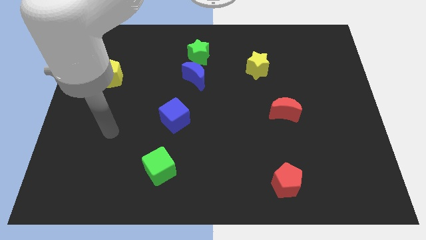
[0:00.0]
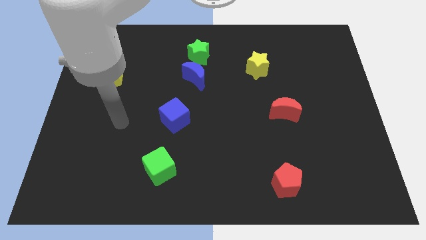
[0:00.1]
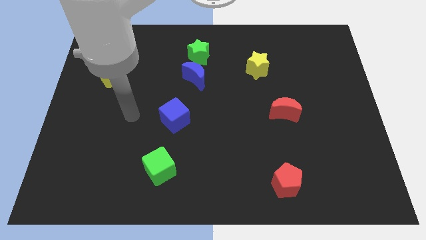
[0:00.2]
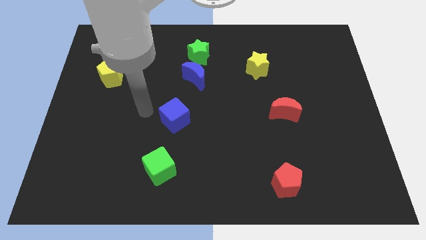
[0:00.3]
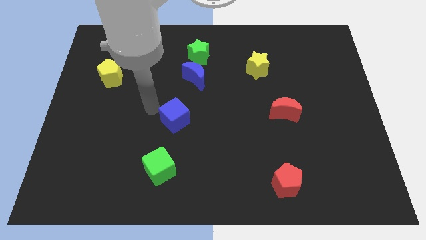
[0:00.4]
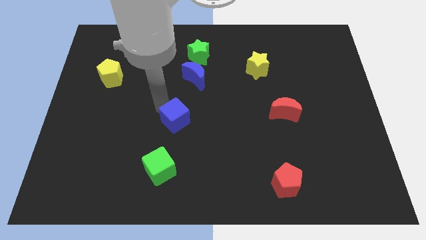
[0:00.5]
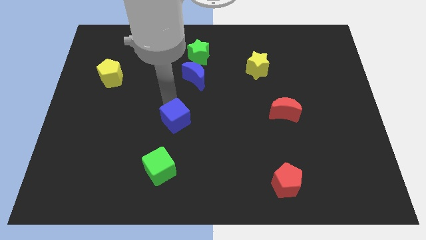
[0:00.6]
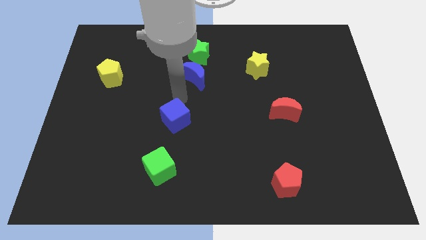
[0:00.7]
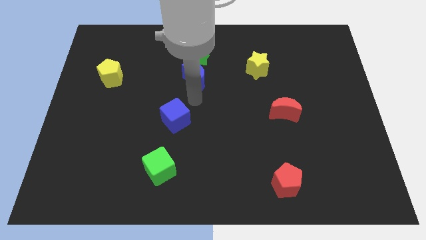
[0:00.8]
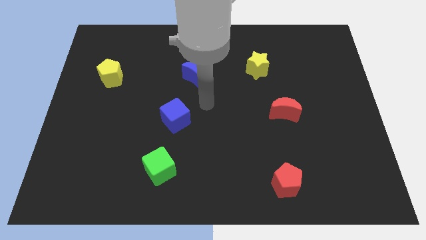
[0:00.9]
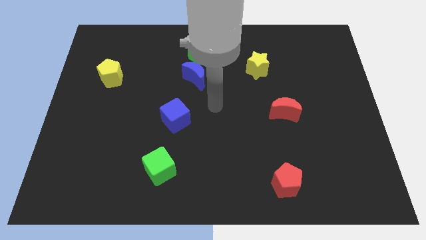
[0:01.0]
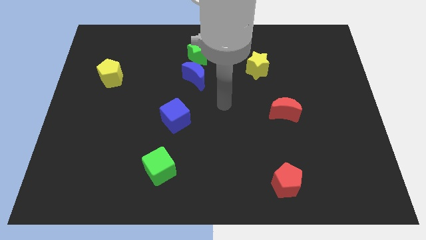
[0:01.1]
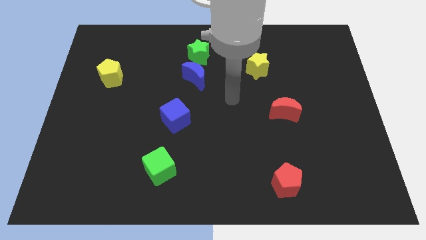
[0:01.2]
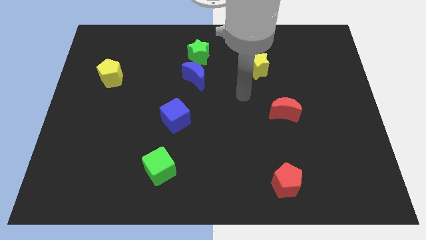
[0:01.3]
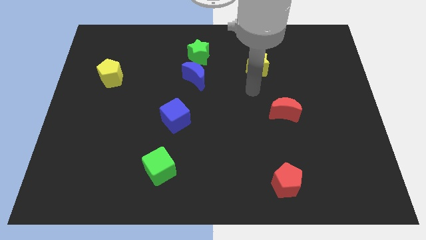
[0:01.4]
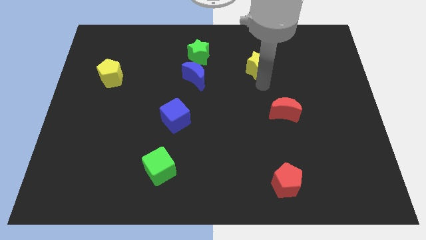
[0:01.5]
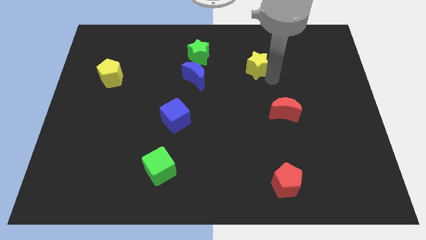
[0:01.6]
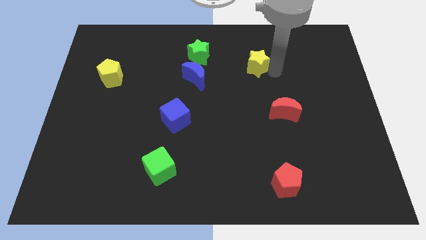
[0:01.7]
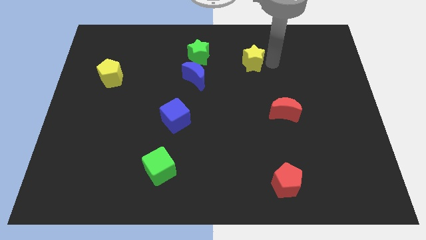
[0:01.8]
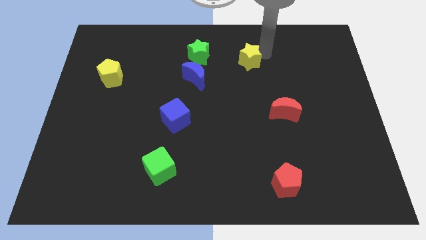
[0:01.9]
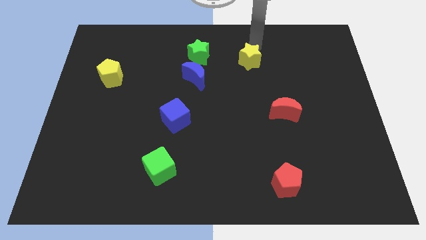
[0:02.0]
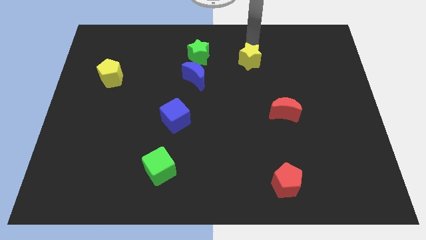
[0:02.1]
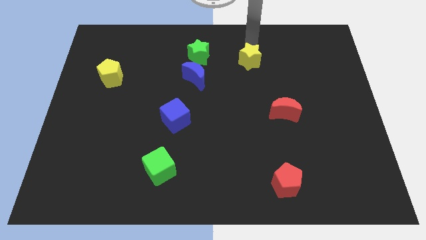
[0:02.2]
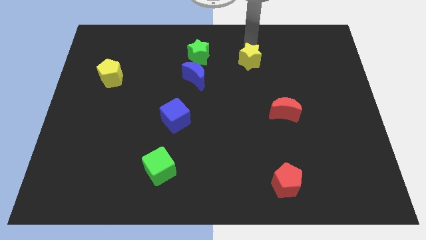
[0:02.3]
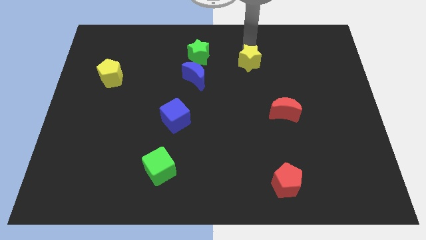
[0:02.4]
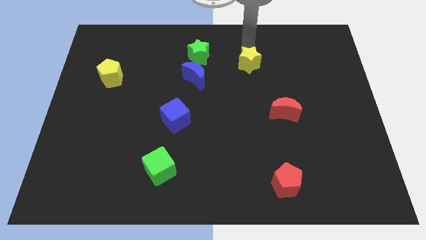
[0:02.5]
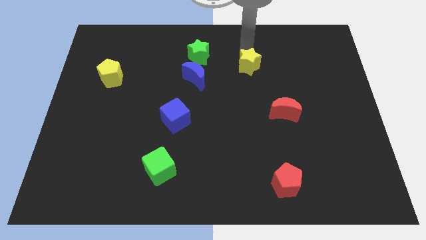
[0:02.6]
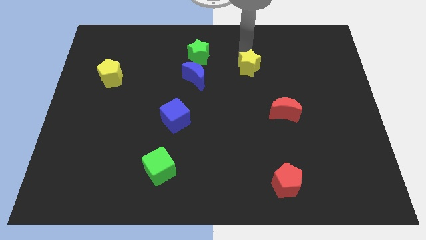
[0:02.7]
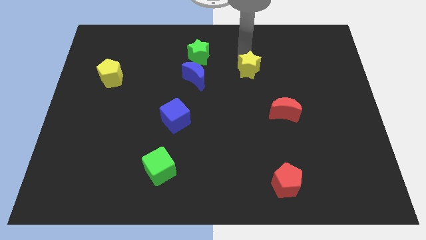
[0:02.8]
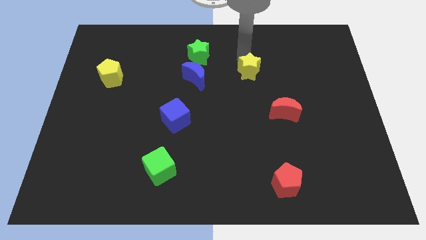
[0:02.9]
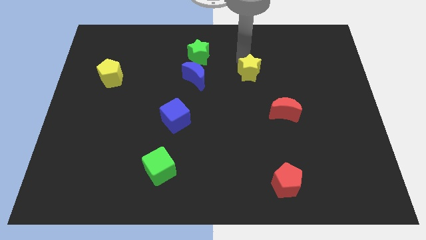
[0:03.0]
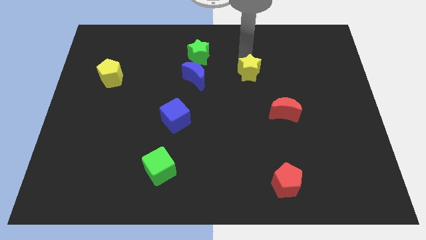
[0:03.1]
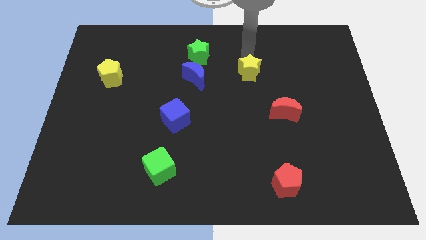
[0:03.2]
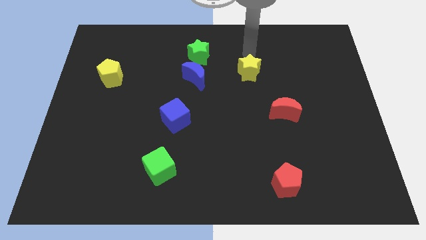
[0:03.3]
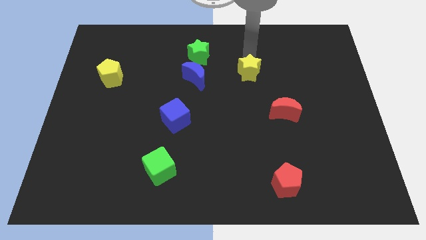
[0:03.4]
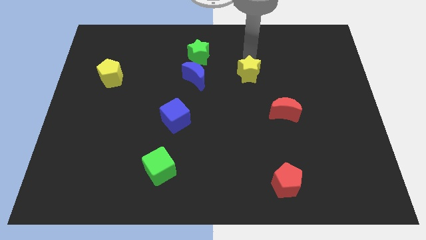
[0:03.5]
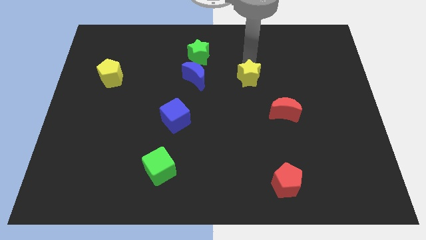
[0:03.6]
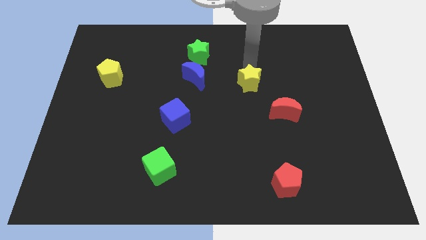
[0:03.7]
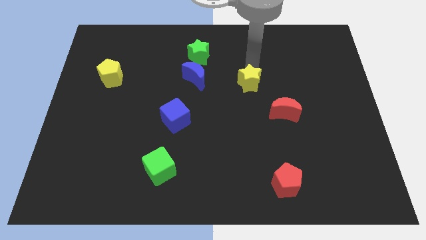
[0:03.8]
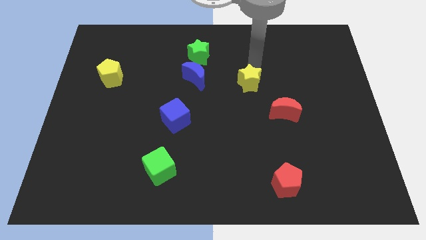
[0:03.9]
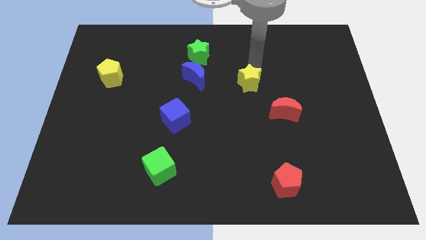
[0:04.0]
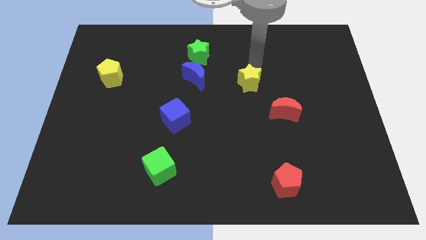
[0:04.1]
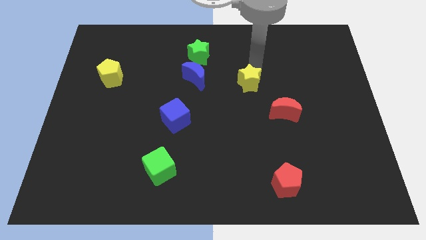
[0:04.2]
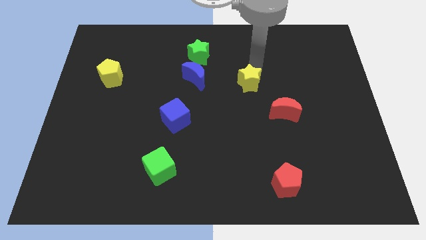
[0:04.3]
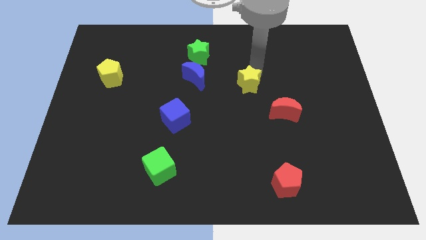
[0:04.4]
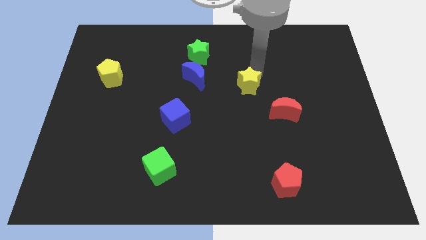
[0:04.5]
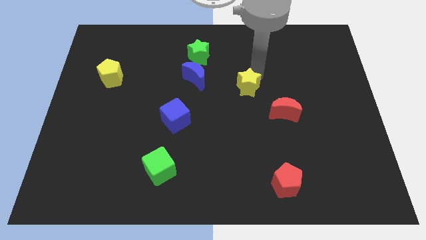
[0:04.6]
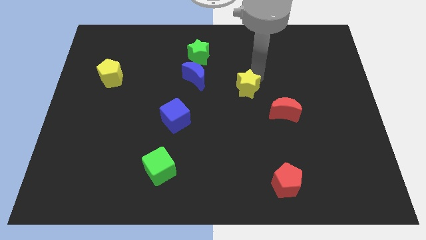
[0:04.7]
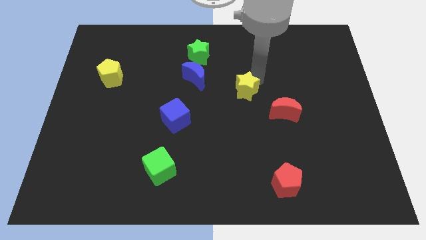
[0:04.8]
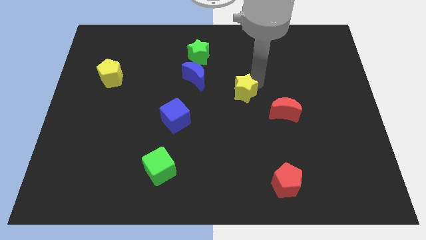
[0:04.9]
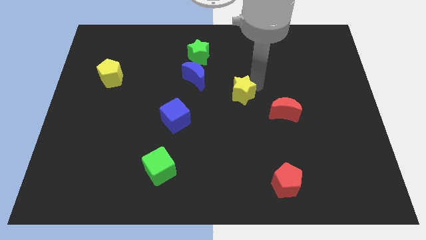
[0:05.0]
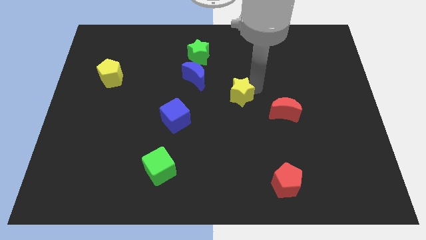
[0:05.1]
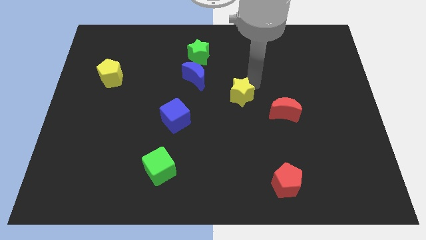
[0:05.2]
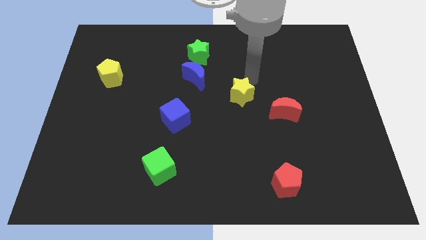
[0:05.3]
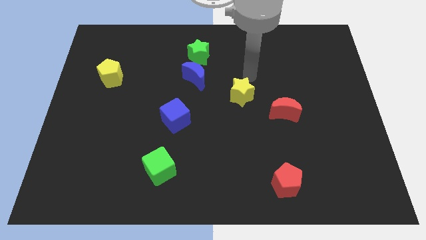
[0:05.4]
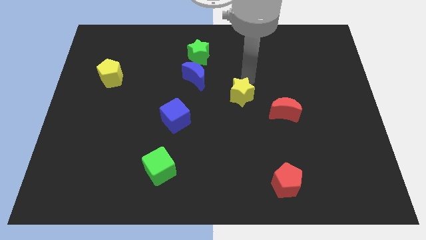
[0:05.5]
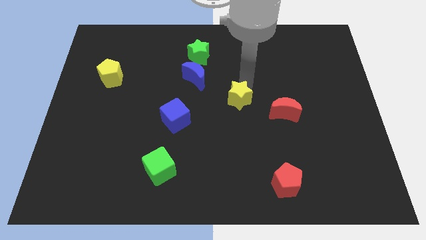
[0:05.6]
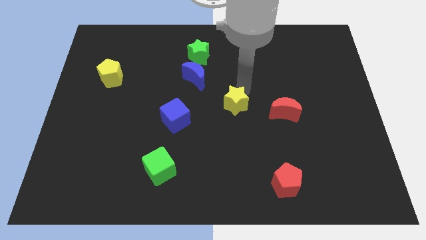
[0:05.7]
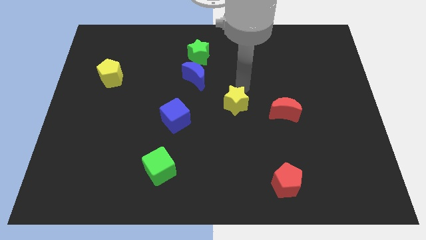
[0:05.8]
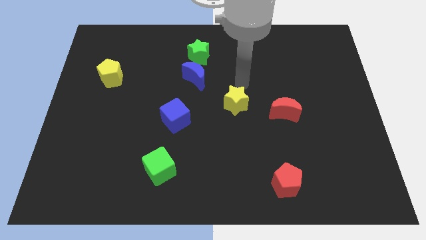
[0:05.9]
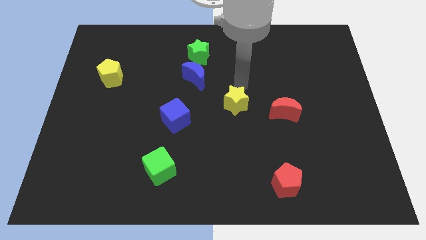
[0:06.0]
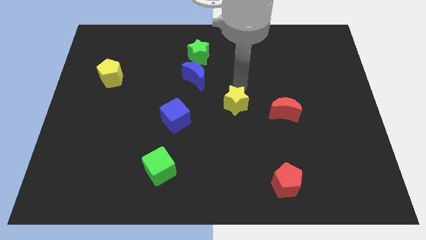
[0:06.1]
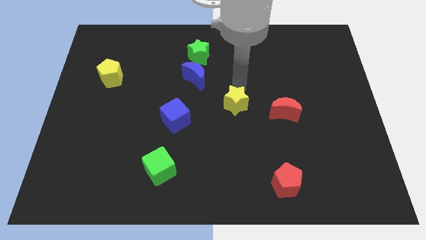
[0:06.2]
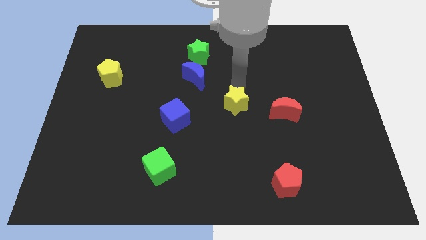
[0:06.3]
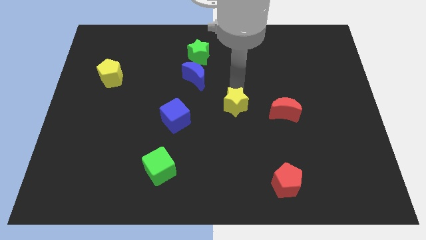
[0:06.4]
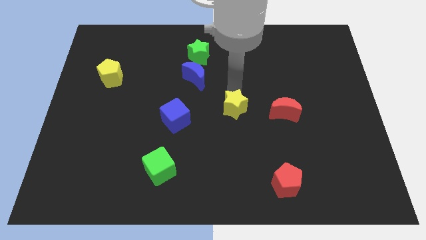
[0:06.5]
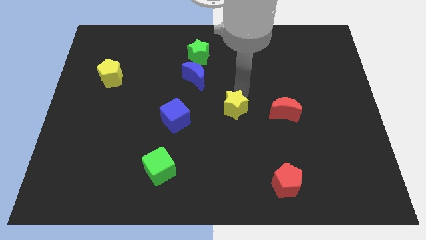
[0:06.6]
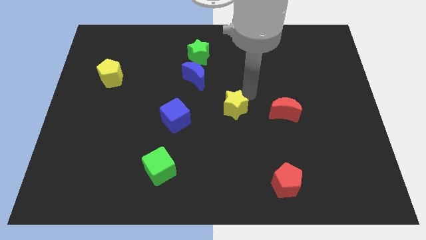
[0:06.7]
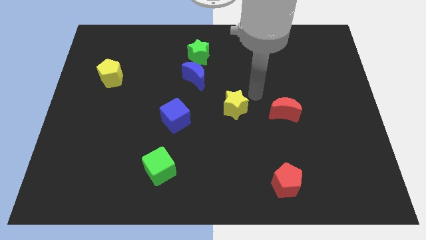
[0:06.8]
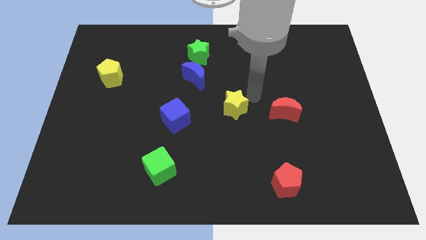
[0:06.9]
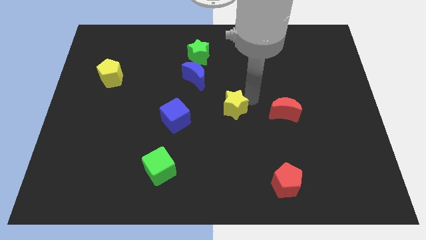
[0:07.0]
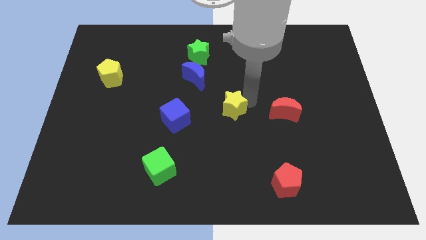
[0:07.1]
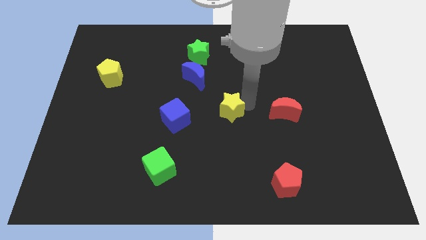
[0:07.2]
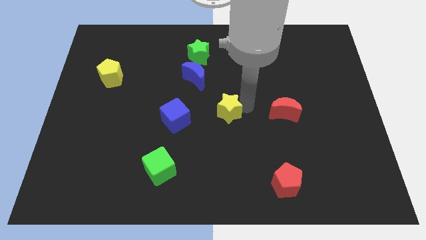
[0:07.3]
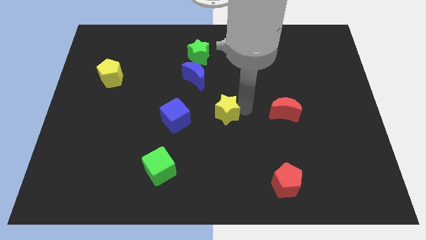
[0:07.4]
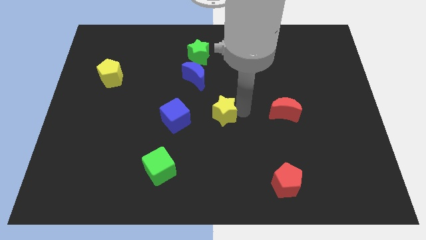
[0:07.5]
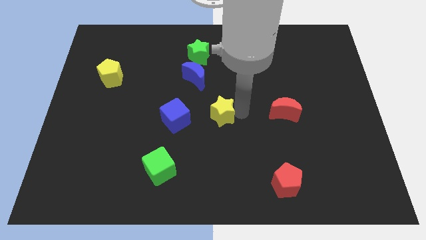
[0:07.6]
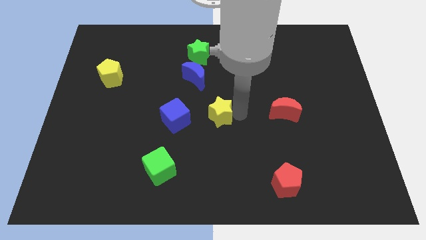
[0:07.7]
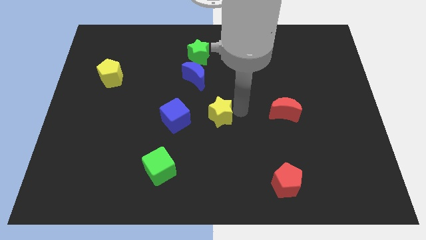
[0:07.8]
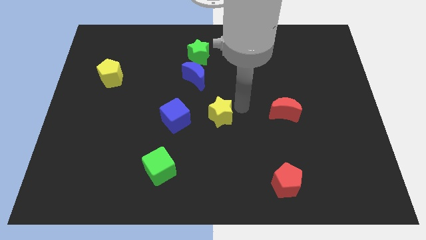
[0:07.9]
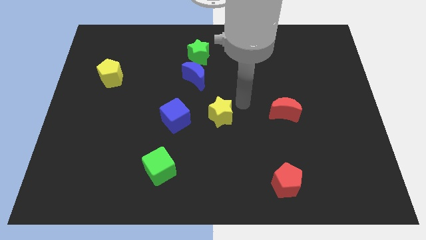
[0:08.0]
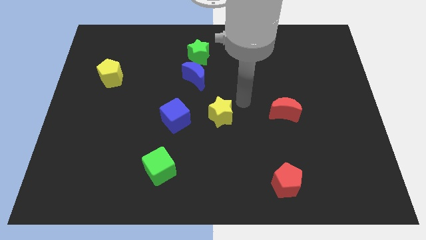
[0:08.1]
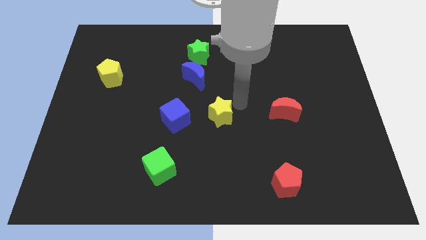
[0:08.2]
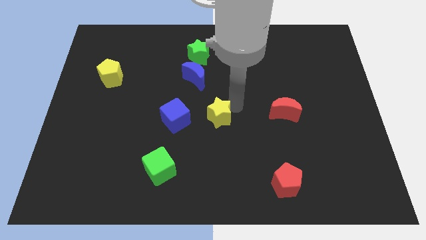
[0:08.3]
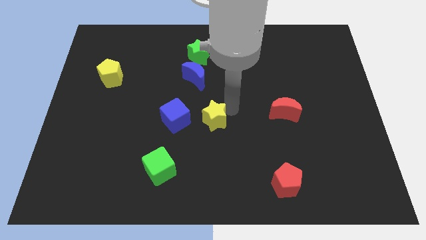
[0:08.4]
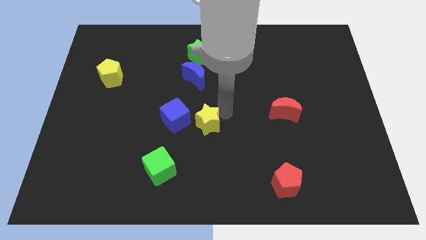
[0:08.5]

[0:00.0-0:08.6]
push the yellow star downwards and left
